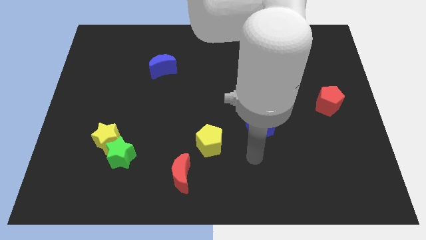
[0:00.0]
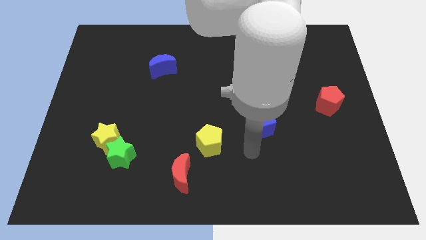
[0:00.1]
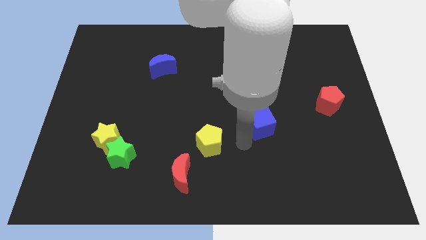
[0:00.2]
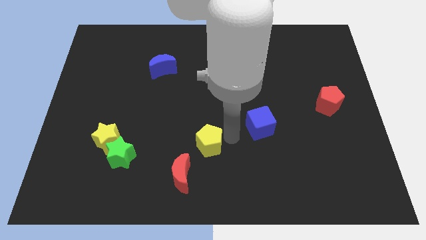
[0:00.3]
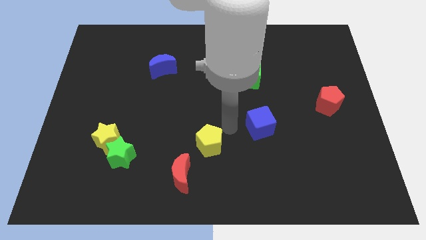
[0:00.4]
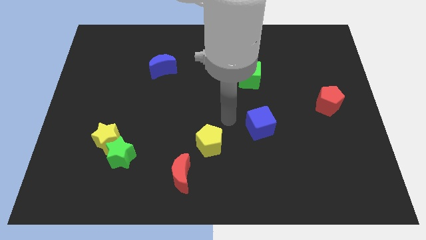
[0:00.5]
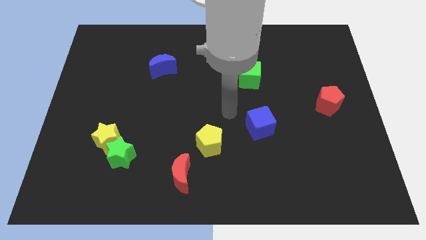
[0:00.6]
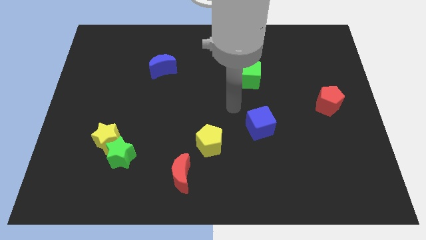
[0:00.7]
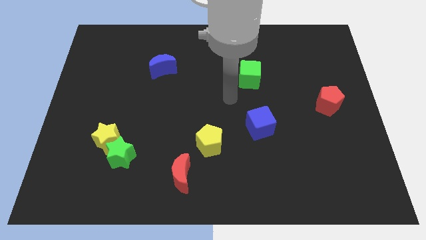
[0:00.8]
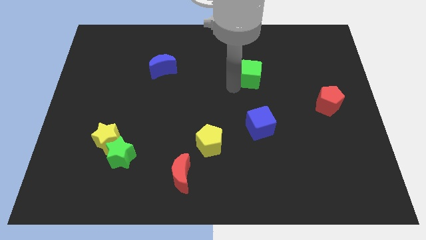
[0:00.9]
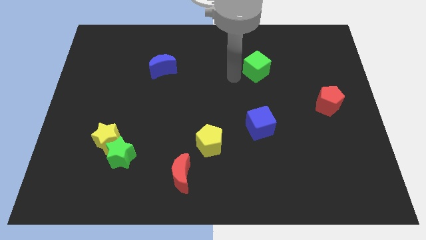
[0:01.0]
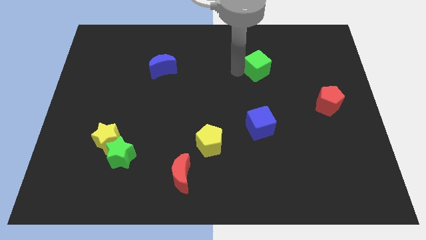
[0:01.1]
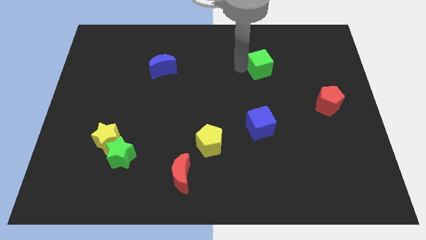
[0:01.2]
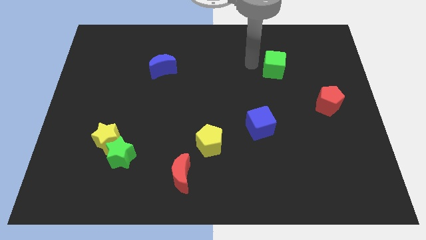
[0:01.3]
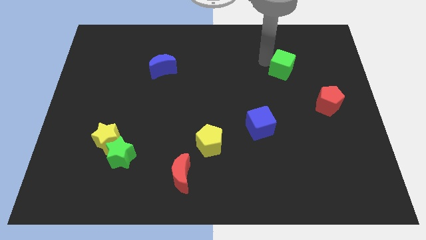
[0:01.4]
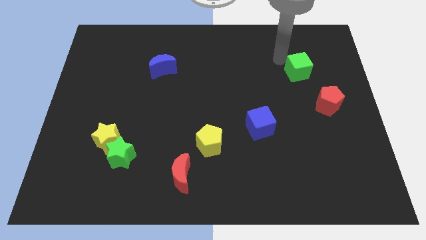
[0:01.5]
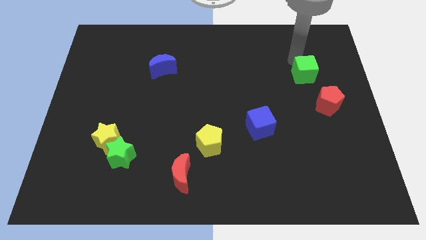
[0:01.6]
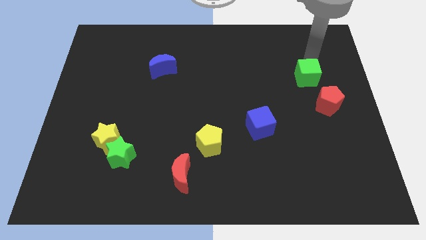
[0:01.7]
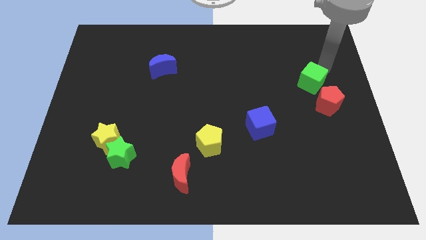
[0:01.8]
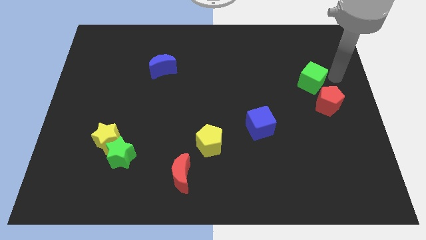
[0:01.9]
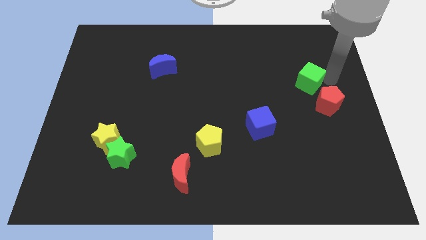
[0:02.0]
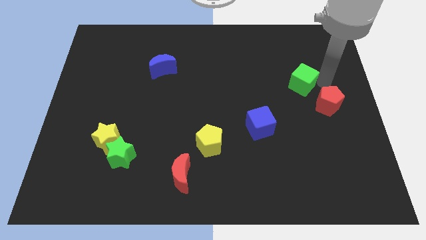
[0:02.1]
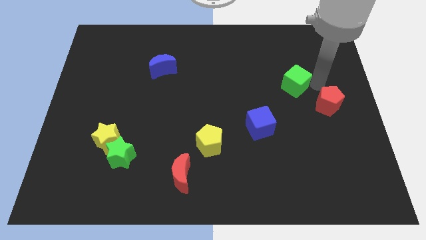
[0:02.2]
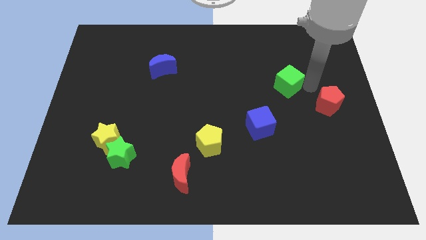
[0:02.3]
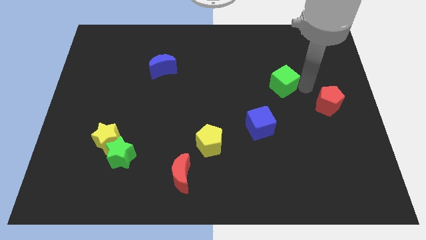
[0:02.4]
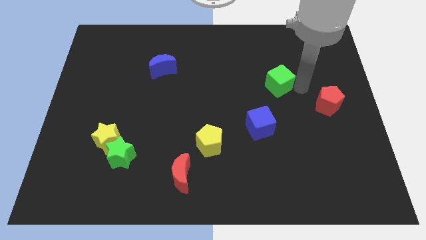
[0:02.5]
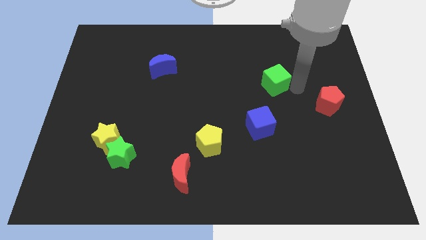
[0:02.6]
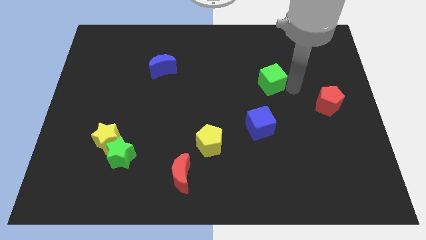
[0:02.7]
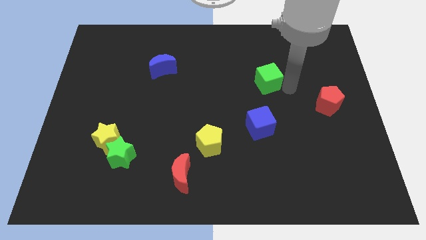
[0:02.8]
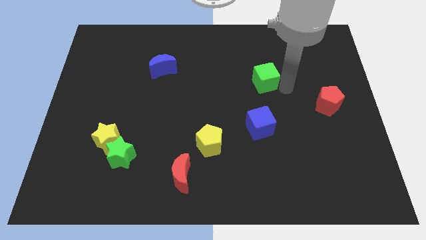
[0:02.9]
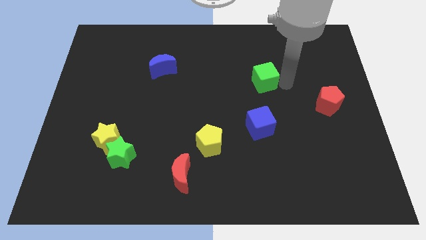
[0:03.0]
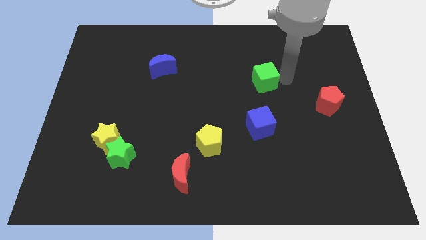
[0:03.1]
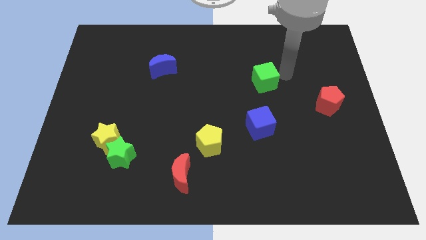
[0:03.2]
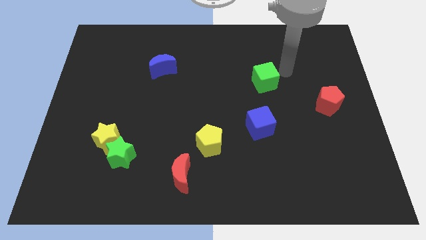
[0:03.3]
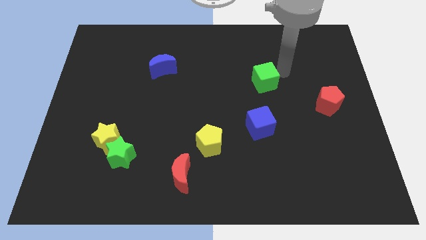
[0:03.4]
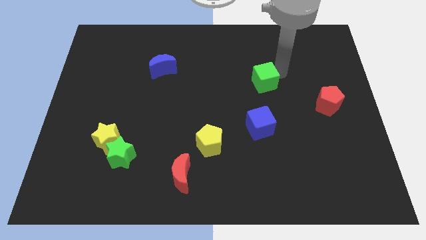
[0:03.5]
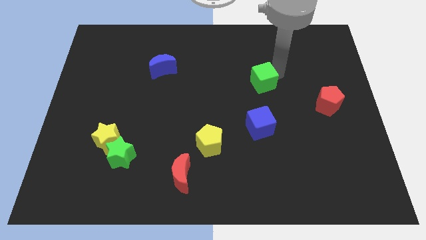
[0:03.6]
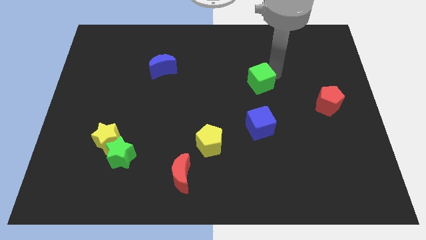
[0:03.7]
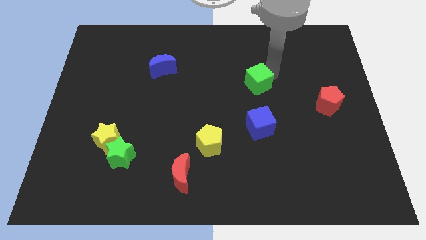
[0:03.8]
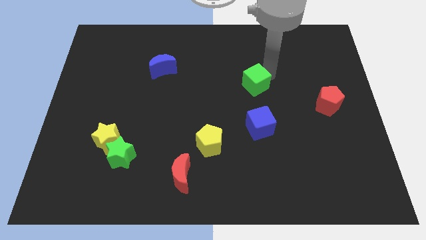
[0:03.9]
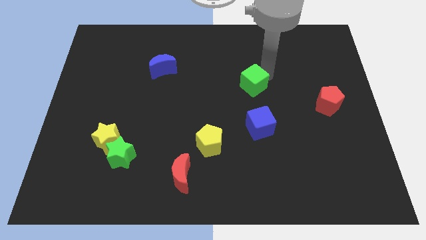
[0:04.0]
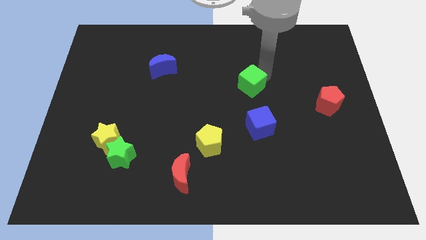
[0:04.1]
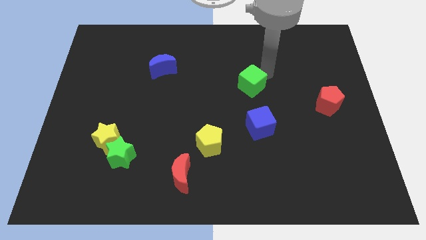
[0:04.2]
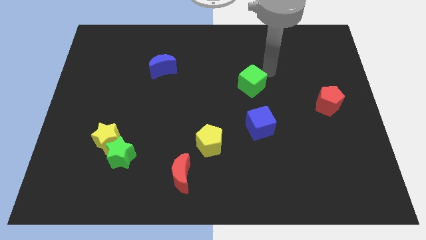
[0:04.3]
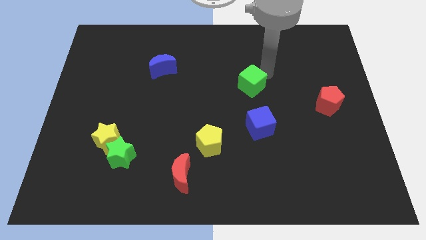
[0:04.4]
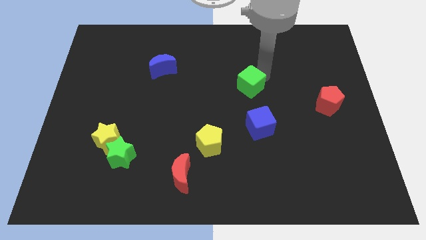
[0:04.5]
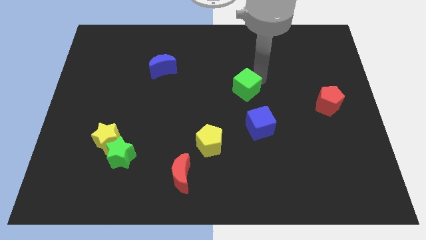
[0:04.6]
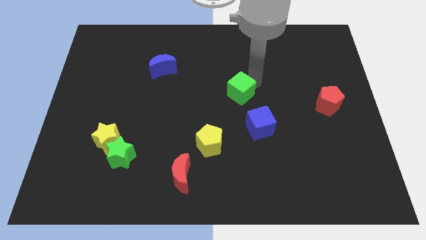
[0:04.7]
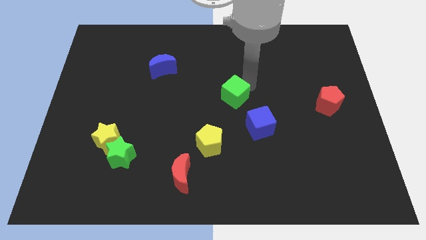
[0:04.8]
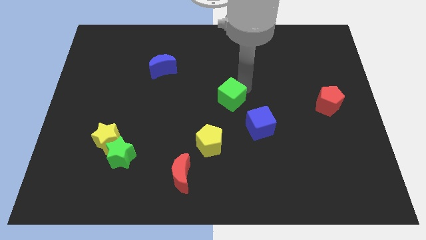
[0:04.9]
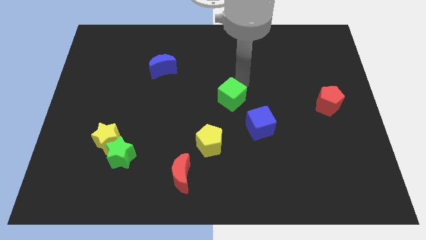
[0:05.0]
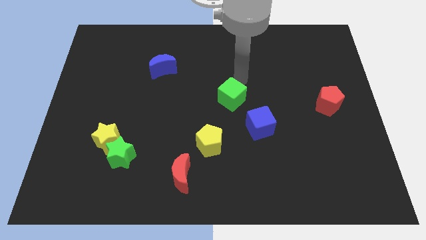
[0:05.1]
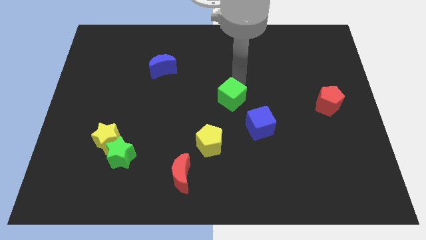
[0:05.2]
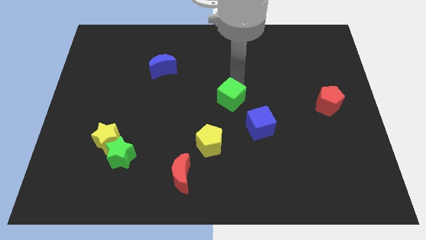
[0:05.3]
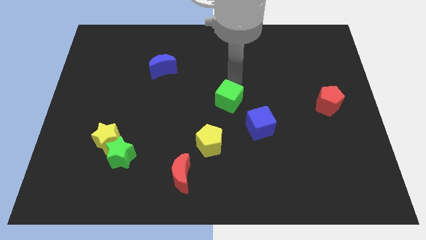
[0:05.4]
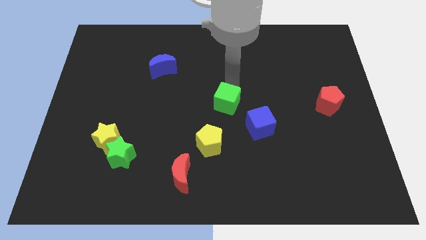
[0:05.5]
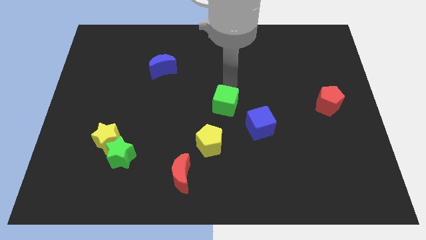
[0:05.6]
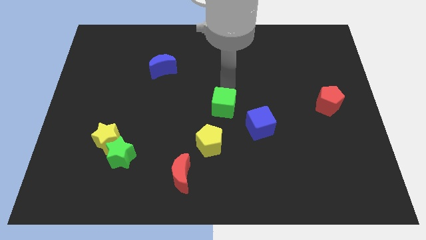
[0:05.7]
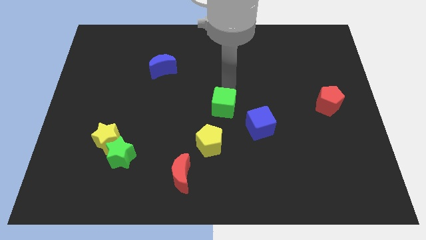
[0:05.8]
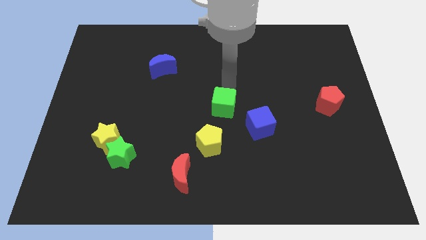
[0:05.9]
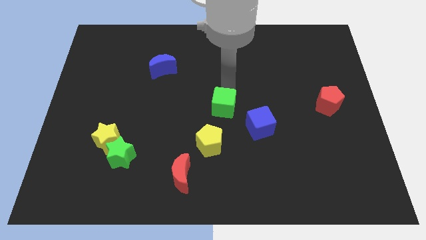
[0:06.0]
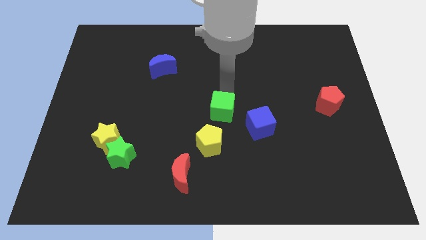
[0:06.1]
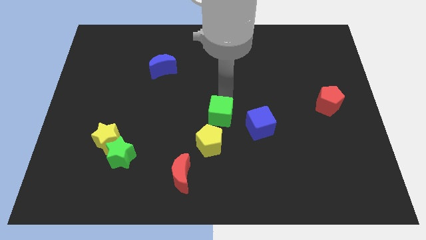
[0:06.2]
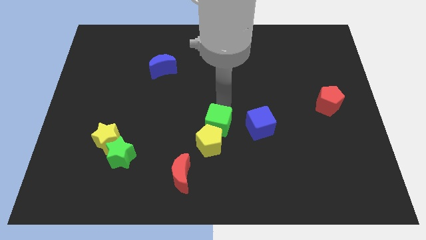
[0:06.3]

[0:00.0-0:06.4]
slide the green cube close to the yellow pentagon

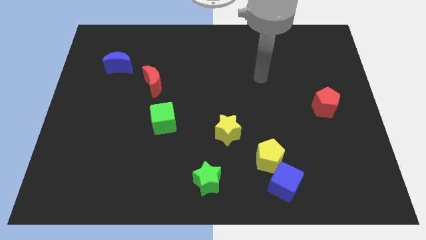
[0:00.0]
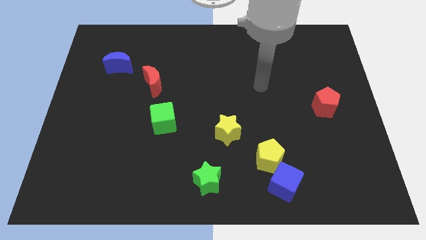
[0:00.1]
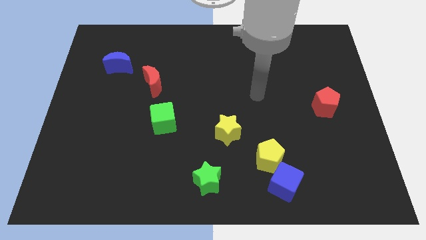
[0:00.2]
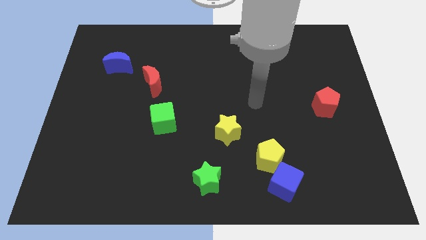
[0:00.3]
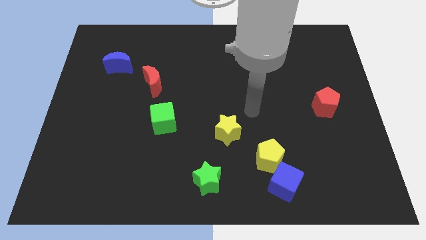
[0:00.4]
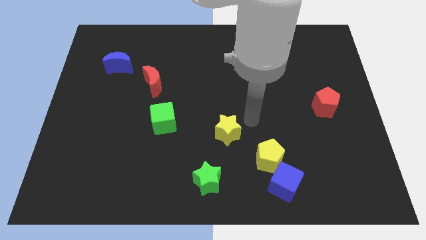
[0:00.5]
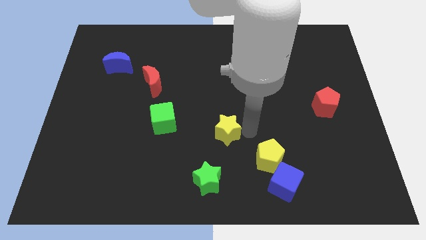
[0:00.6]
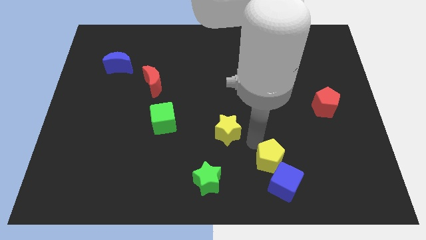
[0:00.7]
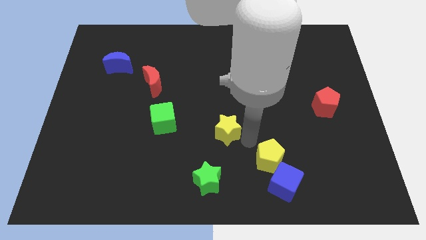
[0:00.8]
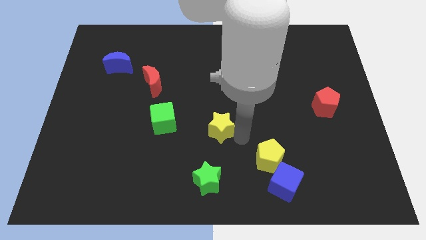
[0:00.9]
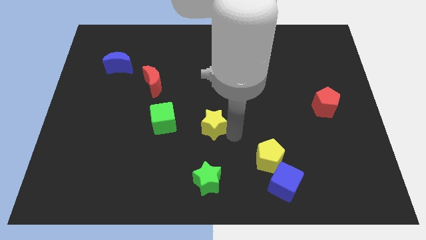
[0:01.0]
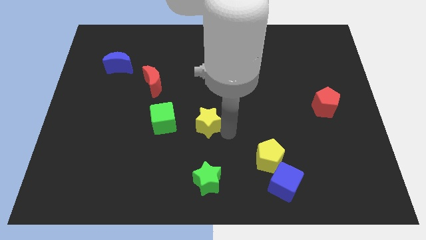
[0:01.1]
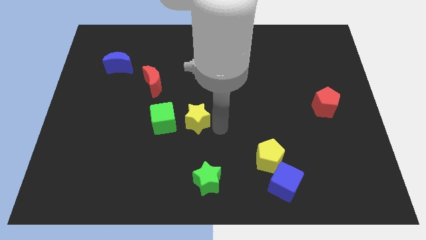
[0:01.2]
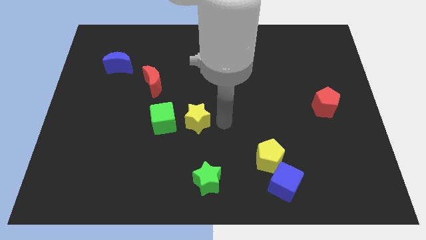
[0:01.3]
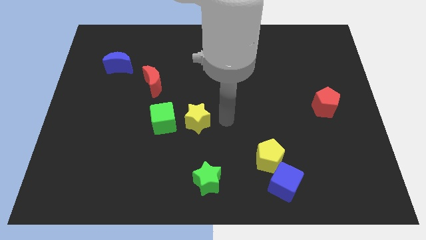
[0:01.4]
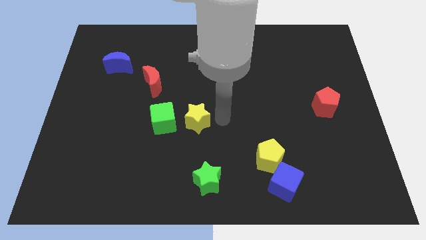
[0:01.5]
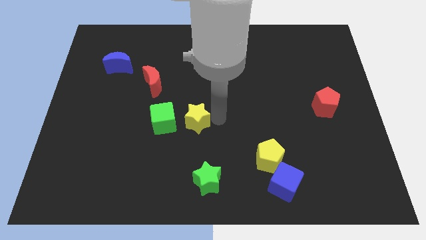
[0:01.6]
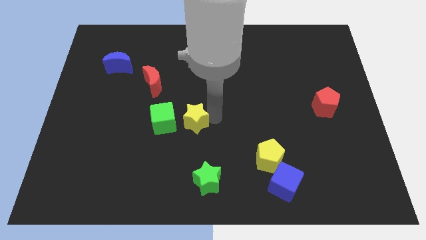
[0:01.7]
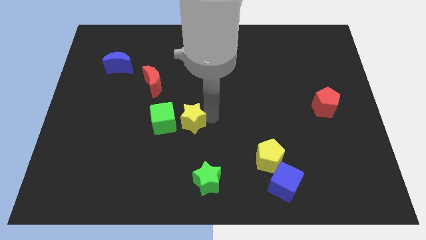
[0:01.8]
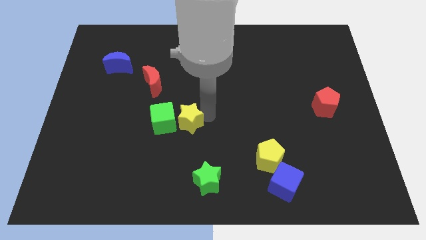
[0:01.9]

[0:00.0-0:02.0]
move the yellow star to the green cube
